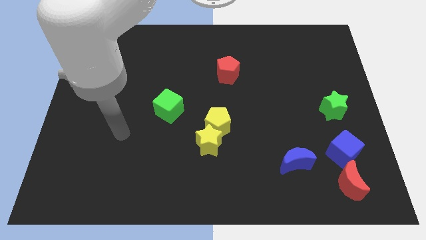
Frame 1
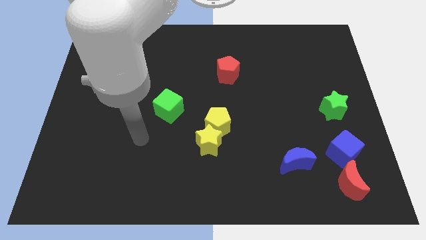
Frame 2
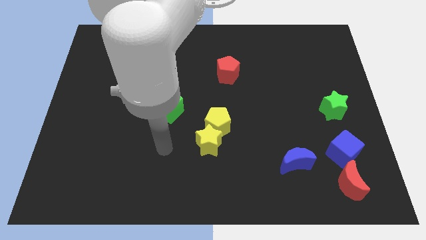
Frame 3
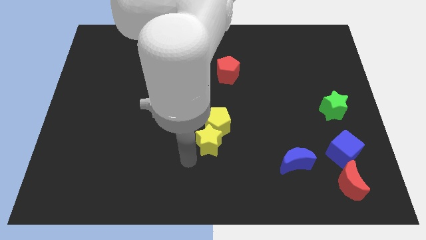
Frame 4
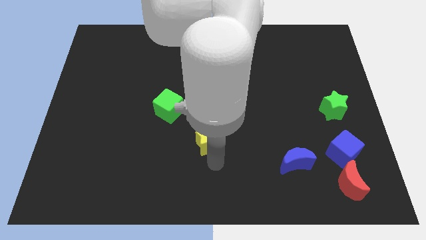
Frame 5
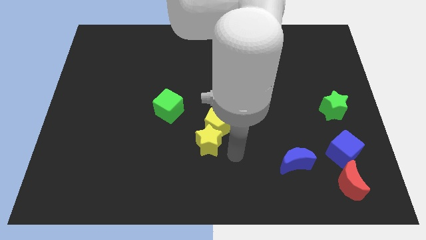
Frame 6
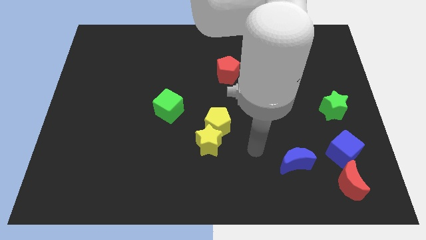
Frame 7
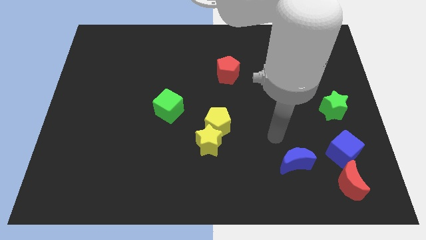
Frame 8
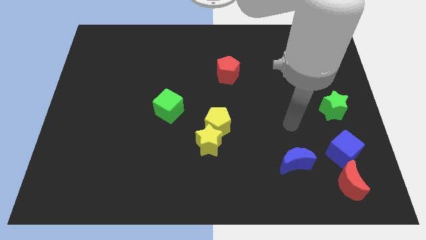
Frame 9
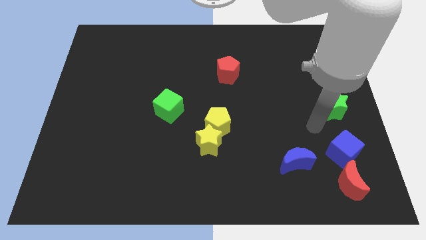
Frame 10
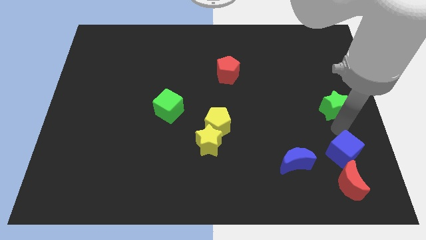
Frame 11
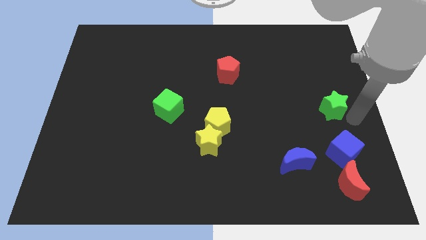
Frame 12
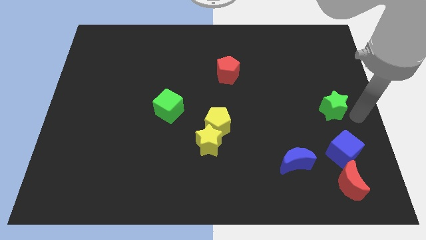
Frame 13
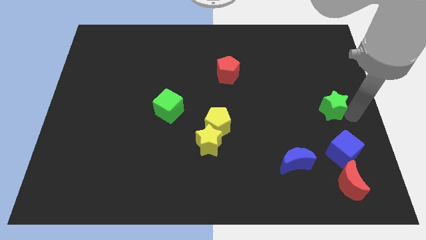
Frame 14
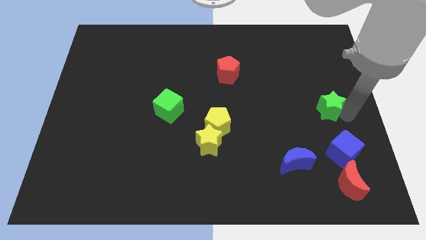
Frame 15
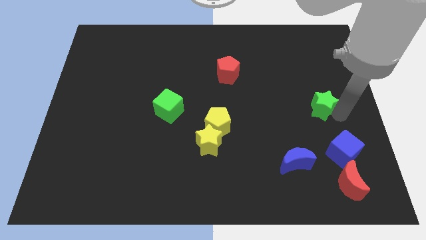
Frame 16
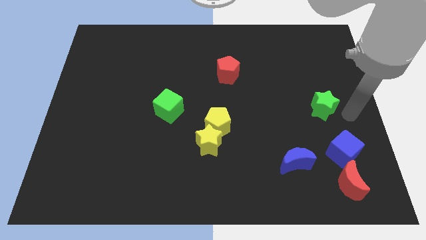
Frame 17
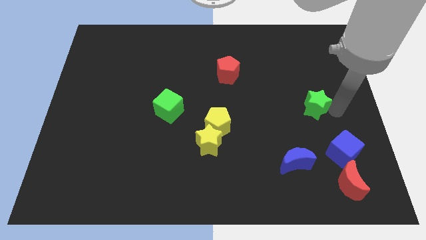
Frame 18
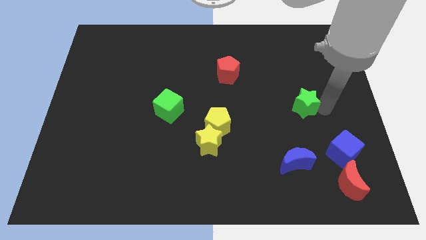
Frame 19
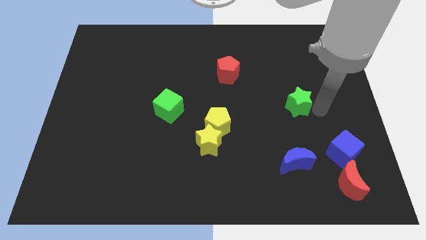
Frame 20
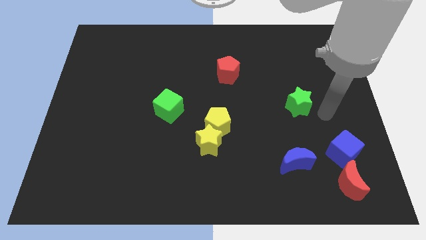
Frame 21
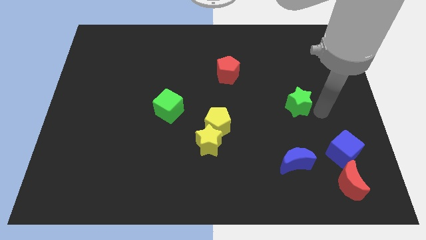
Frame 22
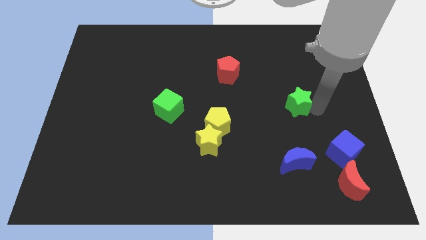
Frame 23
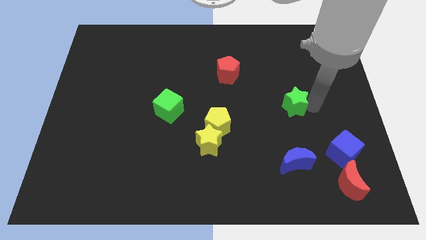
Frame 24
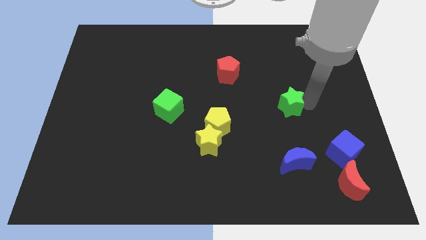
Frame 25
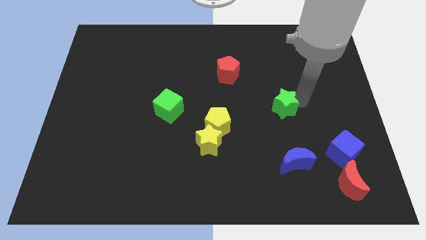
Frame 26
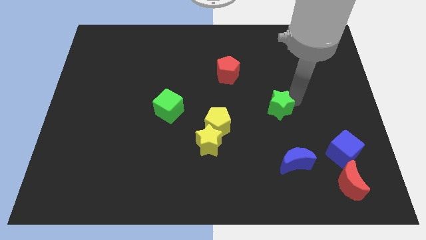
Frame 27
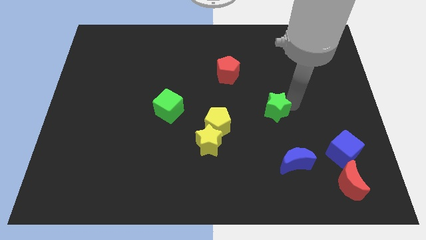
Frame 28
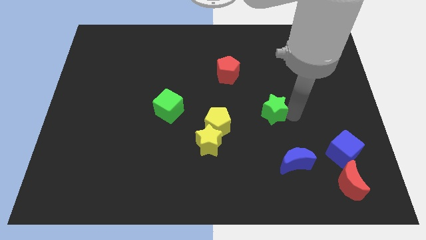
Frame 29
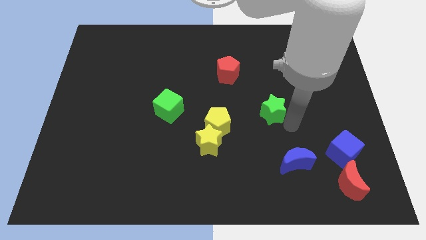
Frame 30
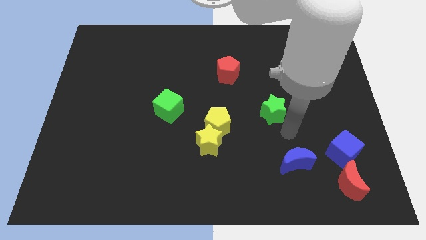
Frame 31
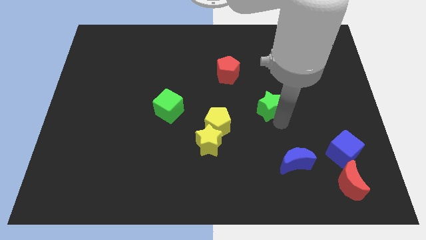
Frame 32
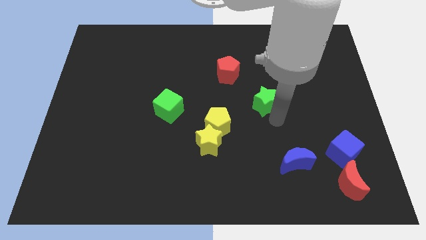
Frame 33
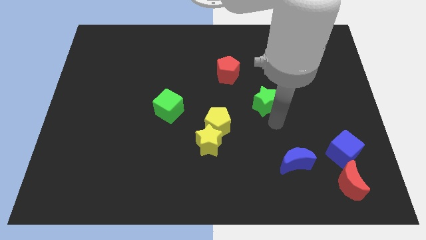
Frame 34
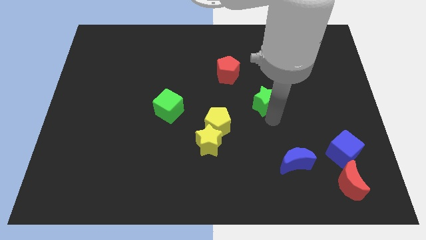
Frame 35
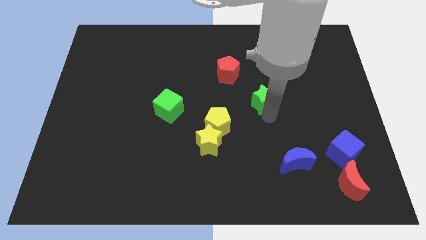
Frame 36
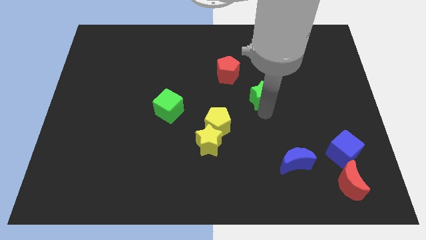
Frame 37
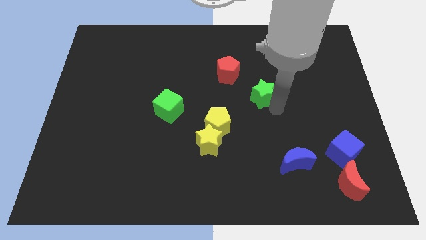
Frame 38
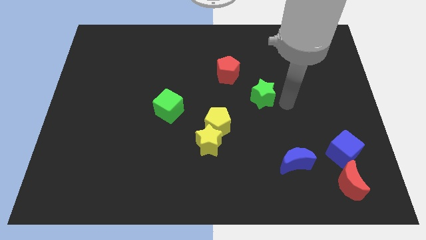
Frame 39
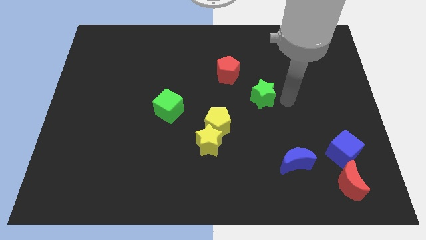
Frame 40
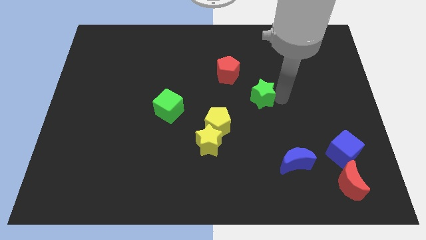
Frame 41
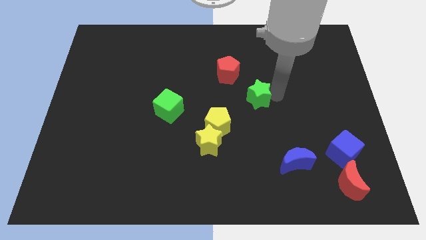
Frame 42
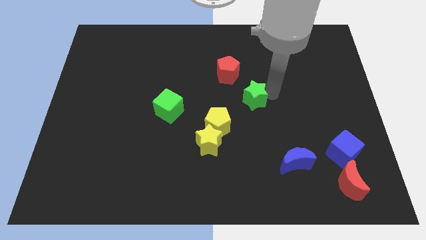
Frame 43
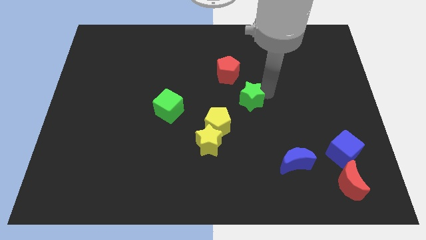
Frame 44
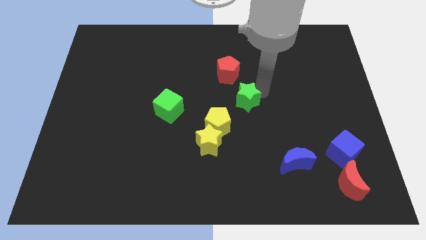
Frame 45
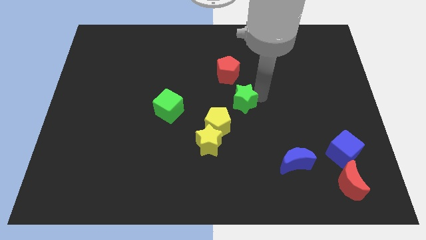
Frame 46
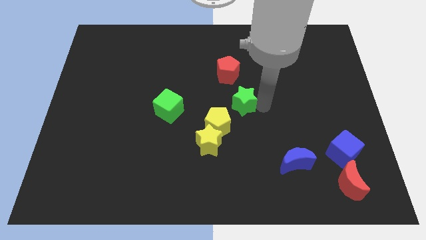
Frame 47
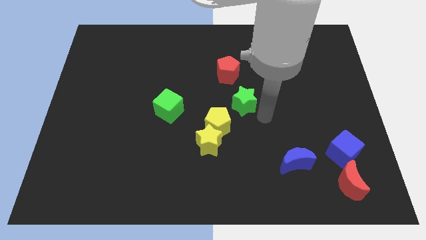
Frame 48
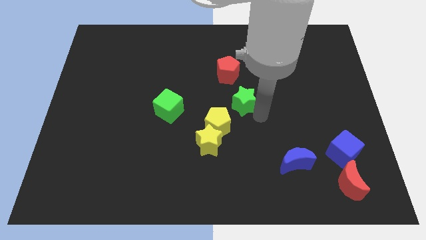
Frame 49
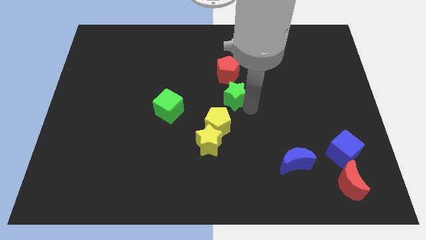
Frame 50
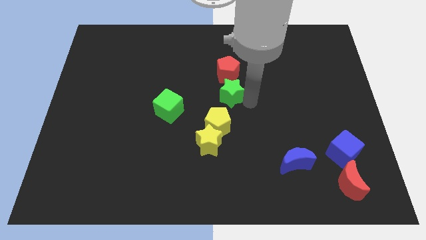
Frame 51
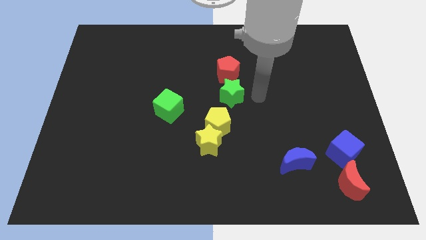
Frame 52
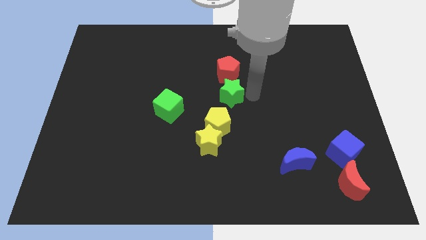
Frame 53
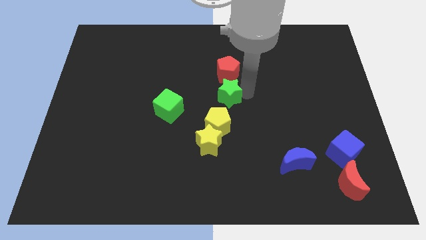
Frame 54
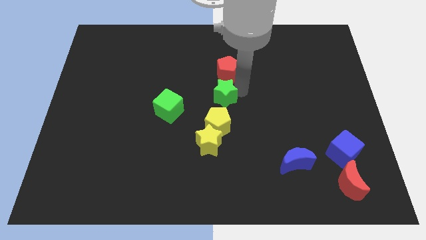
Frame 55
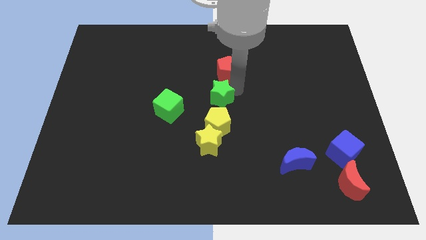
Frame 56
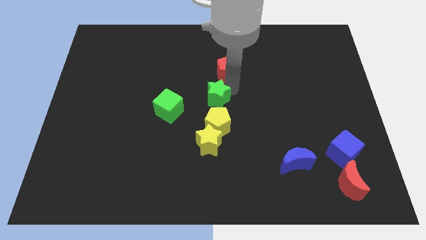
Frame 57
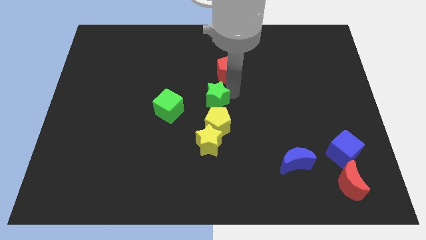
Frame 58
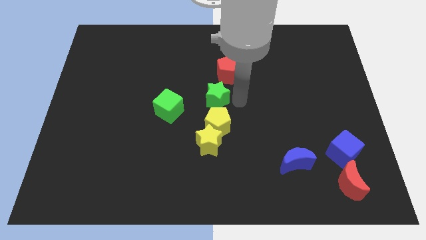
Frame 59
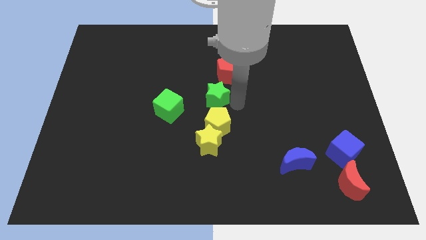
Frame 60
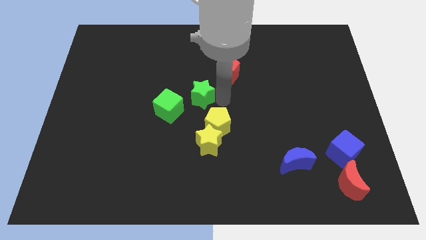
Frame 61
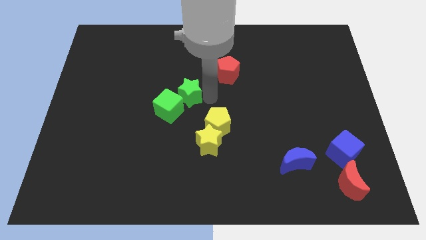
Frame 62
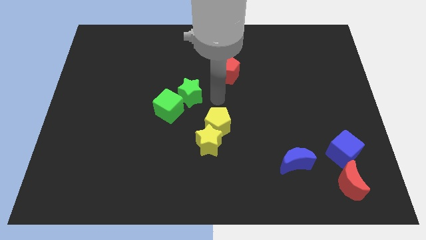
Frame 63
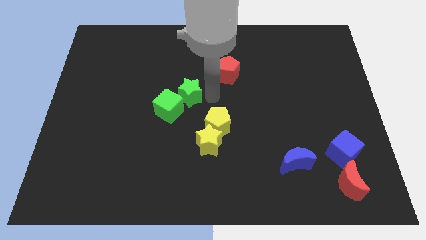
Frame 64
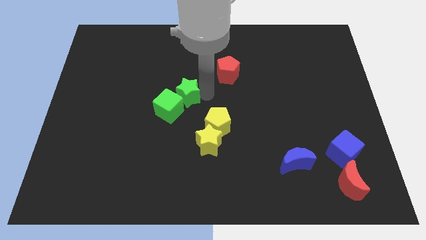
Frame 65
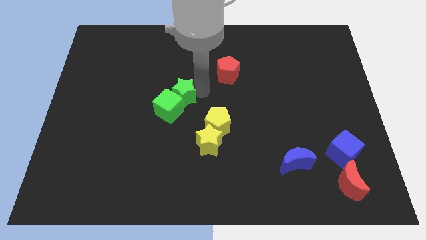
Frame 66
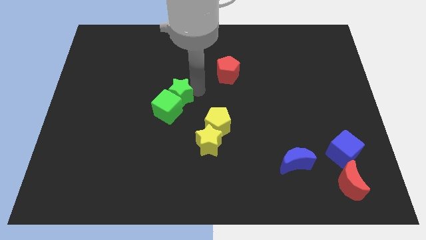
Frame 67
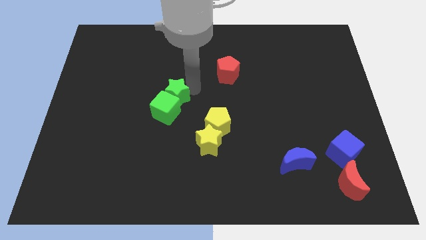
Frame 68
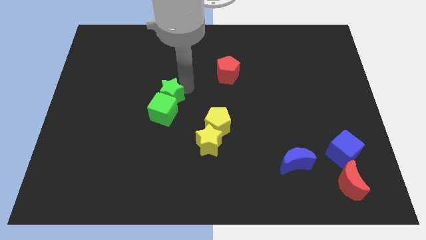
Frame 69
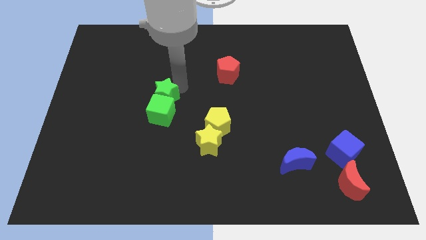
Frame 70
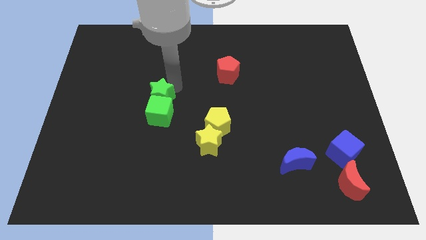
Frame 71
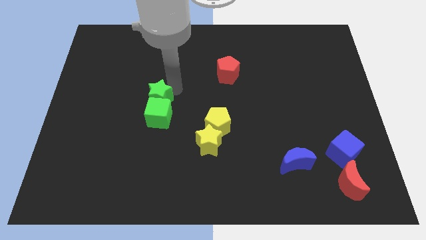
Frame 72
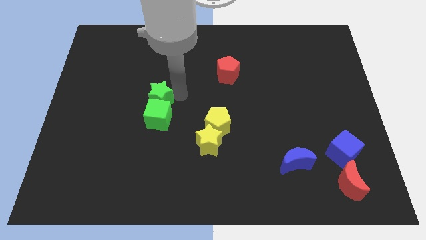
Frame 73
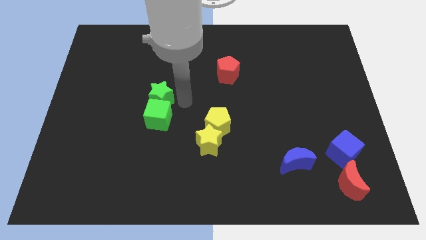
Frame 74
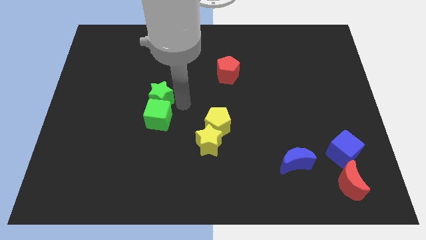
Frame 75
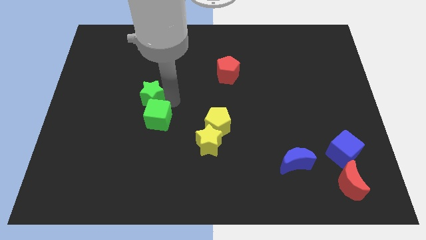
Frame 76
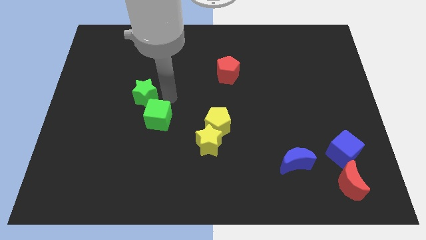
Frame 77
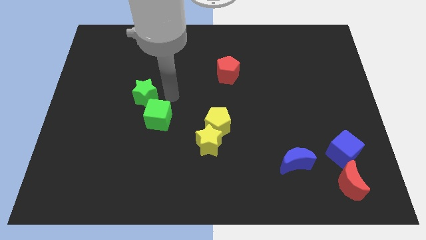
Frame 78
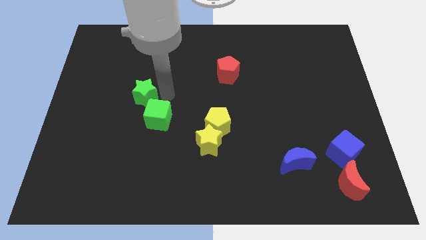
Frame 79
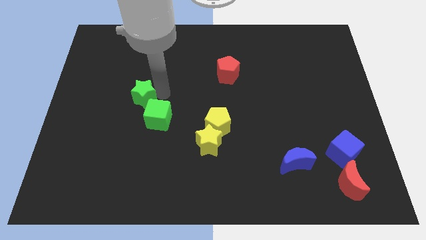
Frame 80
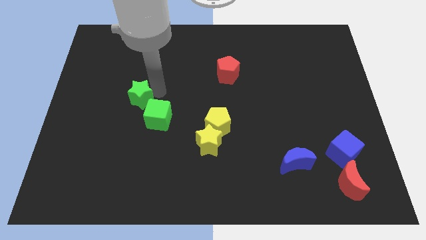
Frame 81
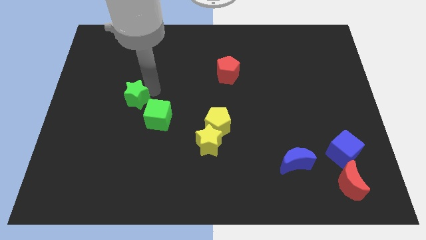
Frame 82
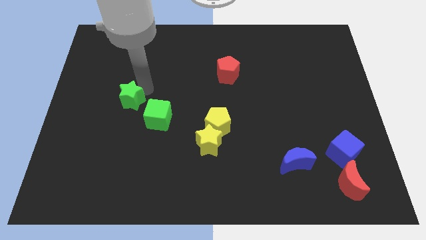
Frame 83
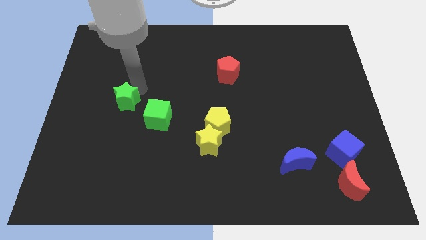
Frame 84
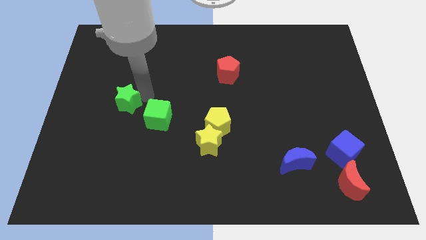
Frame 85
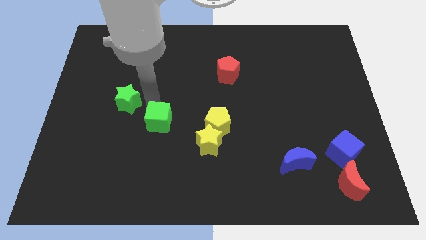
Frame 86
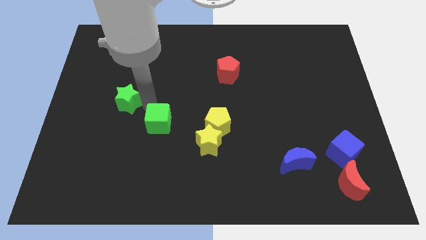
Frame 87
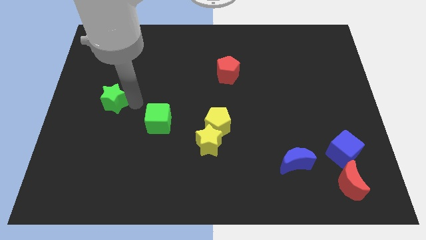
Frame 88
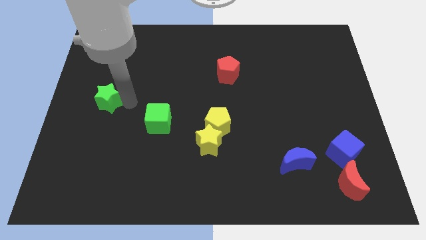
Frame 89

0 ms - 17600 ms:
move the green star to the left side
